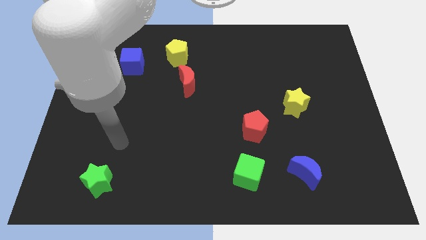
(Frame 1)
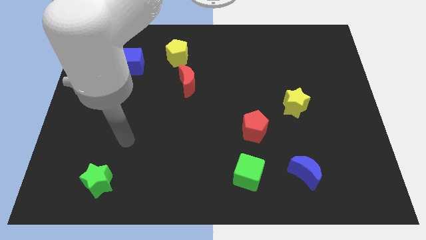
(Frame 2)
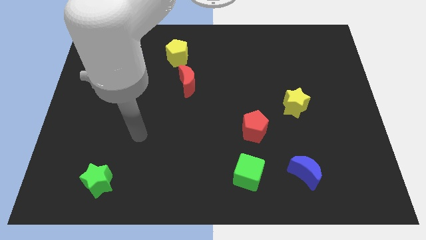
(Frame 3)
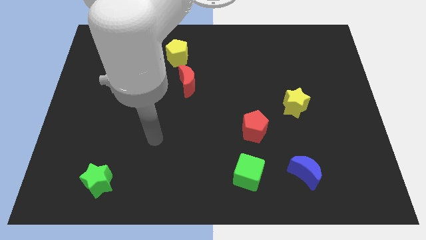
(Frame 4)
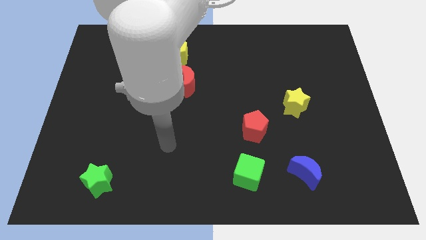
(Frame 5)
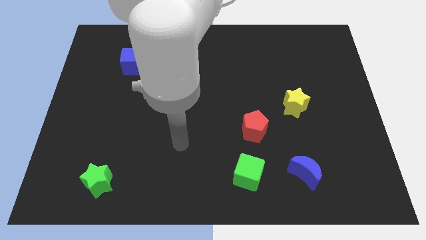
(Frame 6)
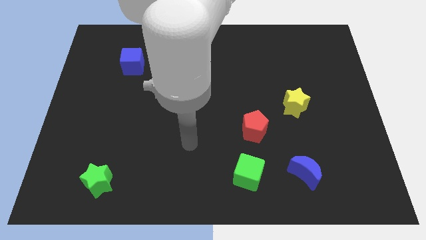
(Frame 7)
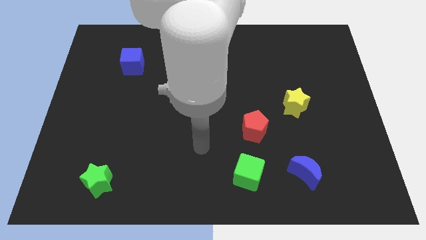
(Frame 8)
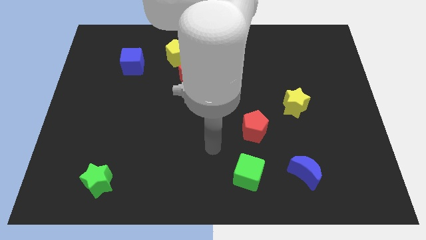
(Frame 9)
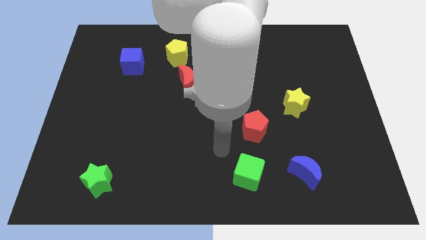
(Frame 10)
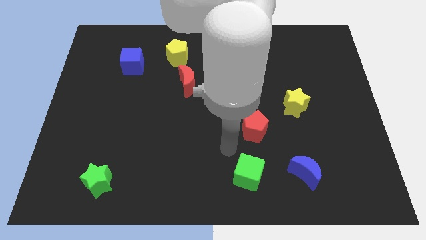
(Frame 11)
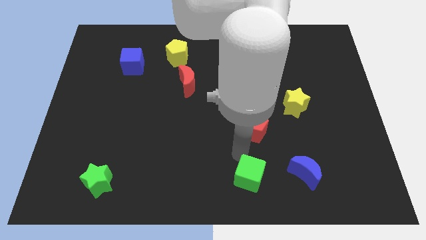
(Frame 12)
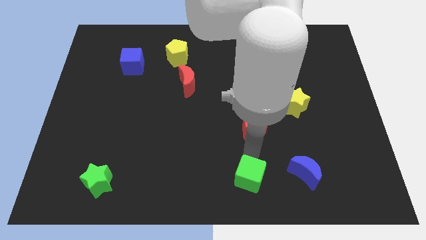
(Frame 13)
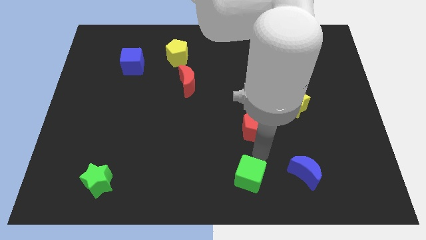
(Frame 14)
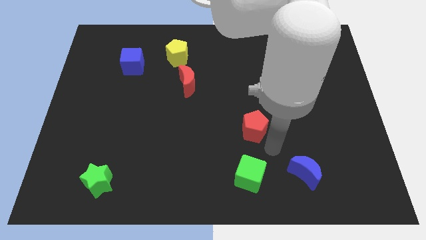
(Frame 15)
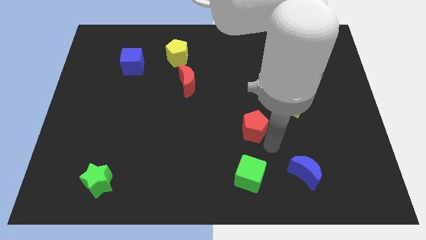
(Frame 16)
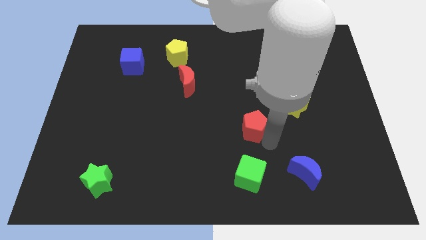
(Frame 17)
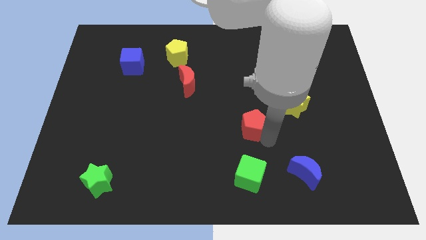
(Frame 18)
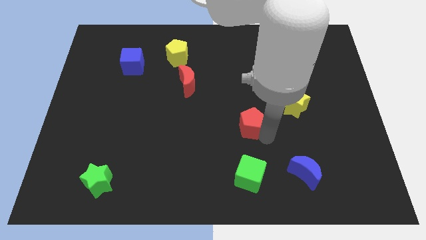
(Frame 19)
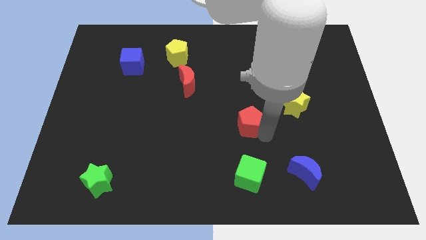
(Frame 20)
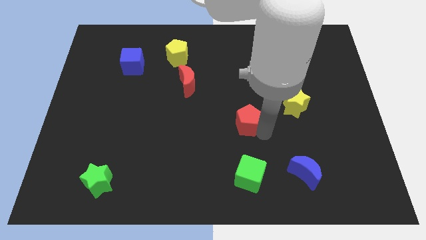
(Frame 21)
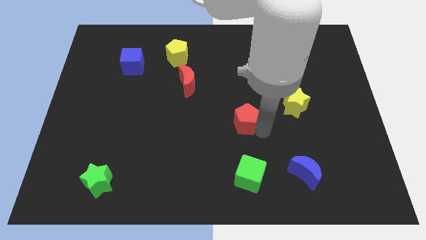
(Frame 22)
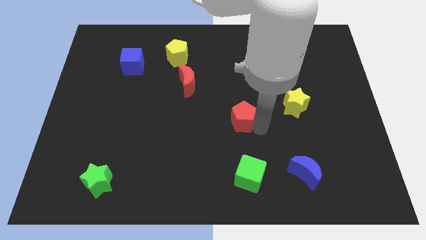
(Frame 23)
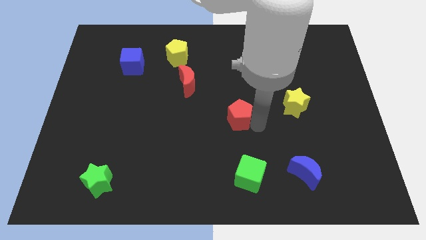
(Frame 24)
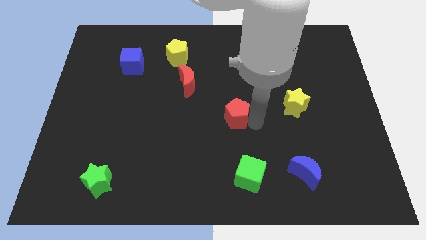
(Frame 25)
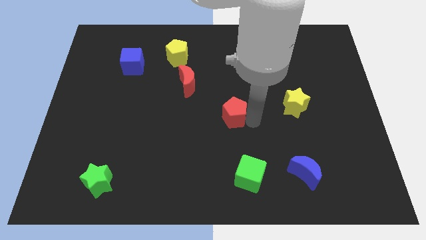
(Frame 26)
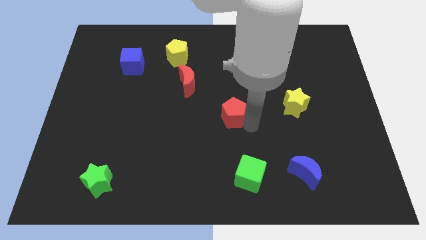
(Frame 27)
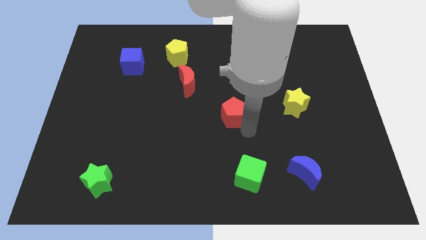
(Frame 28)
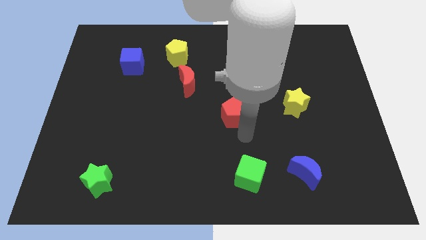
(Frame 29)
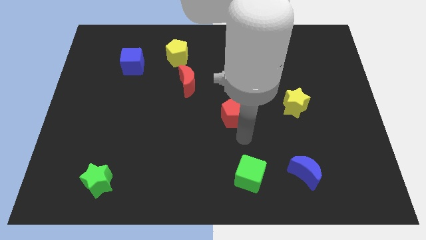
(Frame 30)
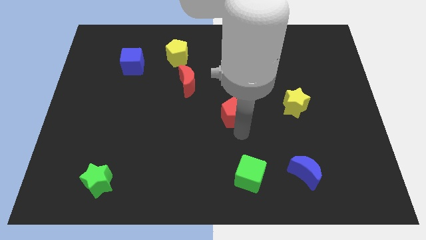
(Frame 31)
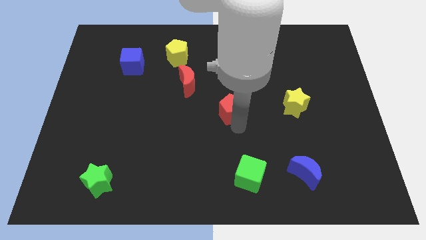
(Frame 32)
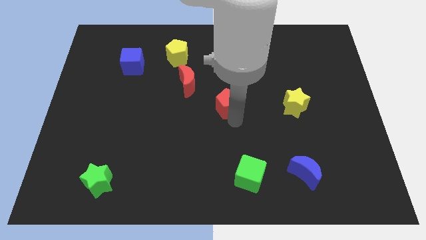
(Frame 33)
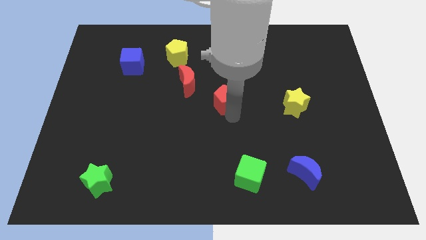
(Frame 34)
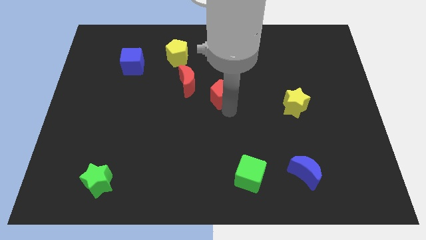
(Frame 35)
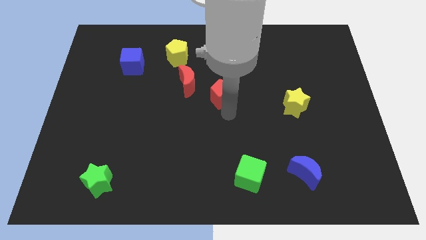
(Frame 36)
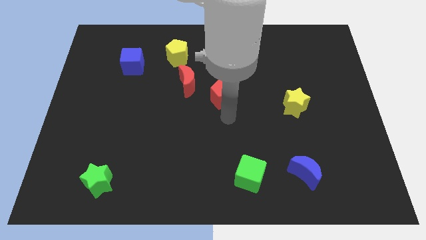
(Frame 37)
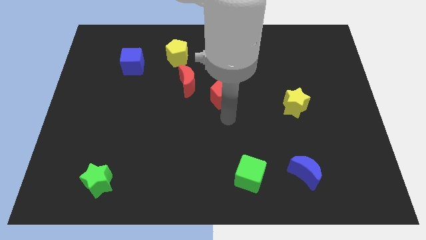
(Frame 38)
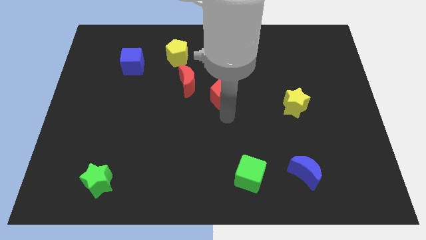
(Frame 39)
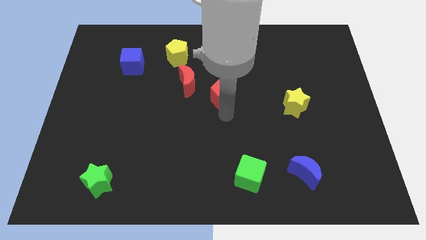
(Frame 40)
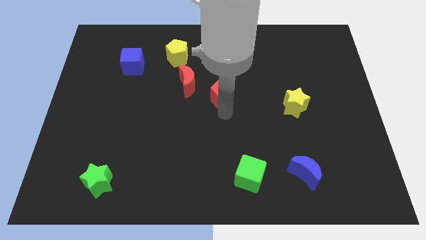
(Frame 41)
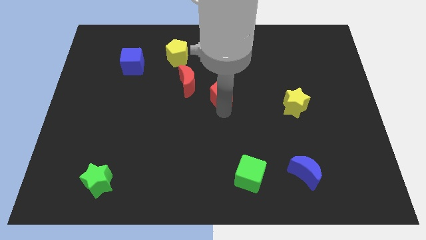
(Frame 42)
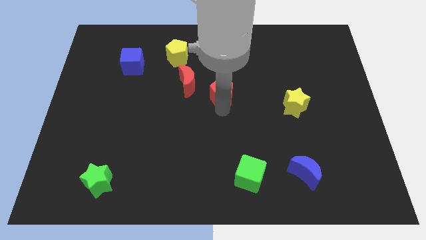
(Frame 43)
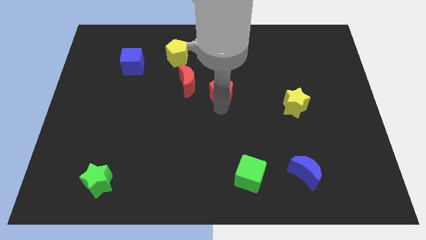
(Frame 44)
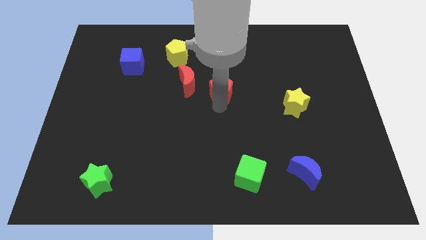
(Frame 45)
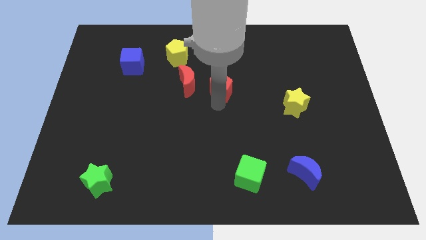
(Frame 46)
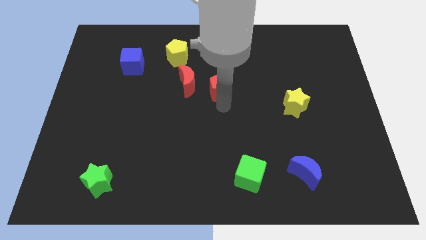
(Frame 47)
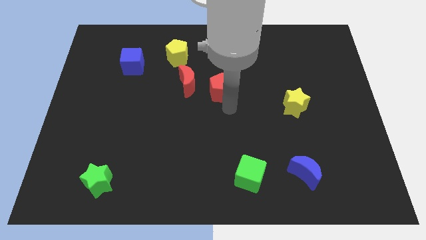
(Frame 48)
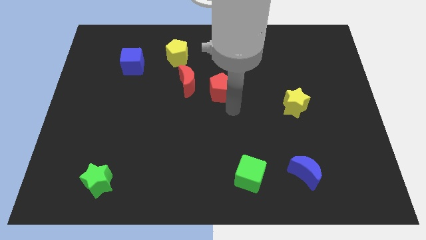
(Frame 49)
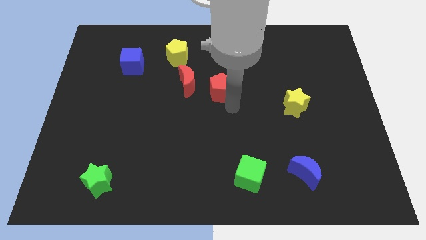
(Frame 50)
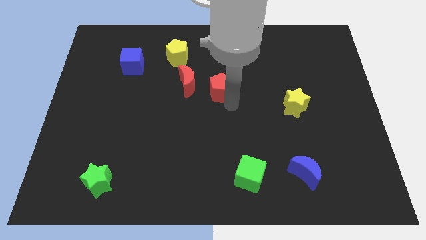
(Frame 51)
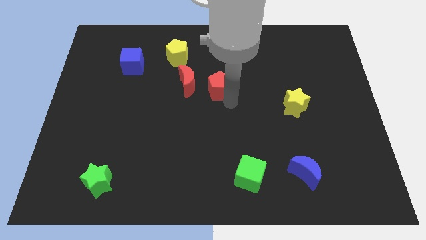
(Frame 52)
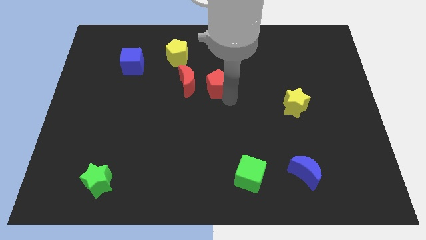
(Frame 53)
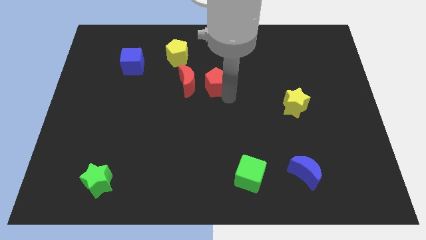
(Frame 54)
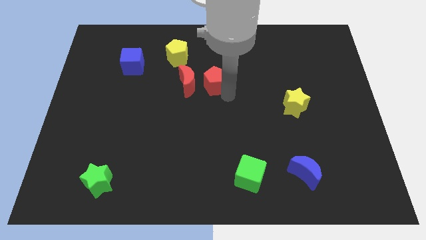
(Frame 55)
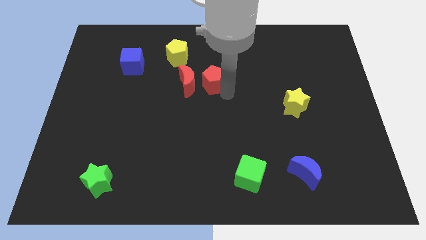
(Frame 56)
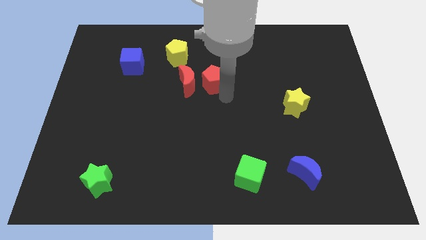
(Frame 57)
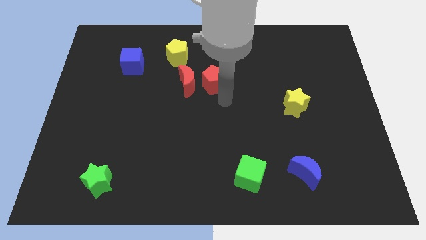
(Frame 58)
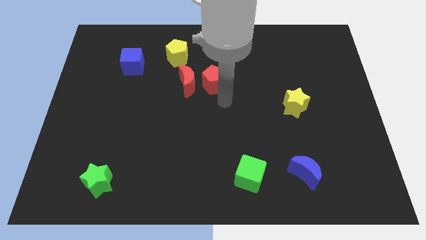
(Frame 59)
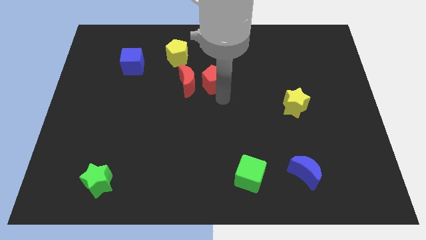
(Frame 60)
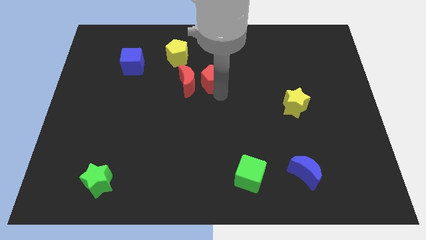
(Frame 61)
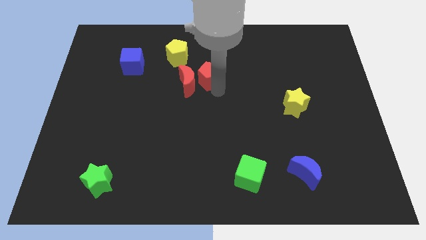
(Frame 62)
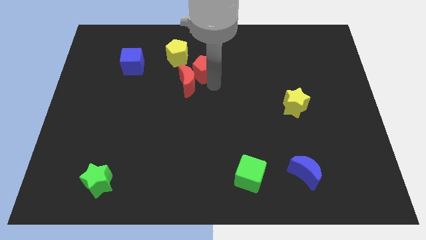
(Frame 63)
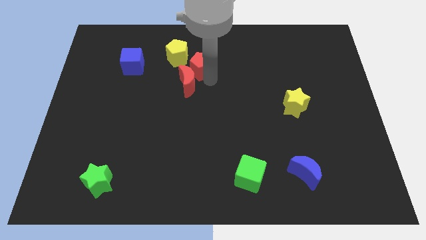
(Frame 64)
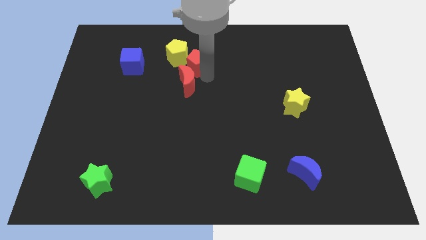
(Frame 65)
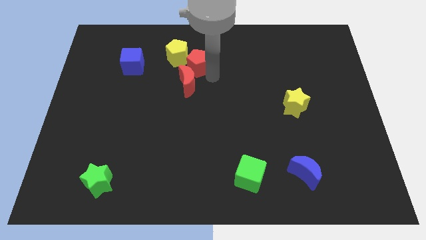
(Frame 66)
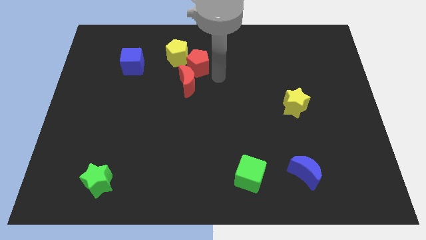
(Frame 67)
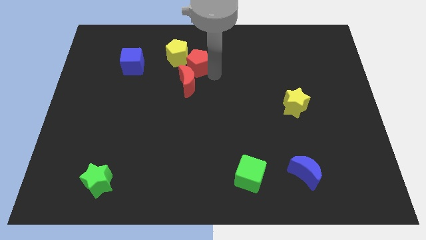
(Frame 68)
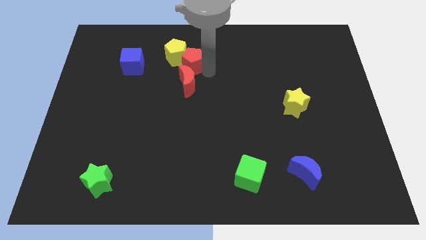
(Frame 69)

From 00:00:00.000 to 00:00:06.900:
put the red pentagon next to the yellow pentagon
